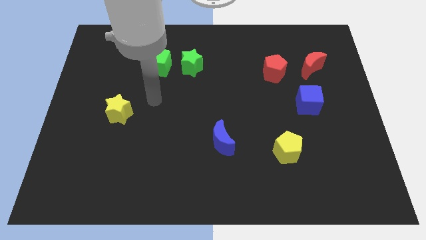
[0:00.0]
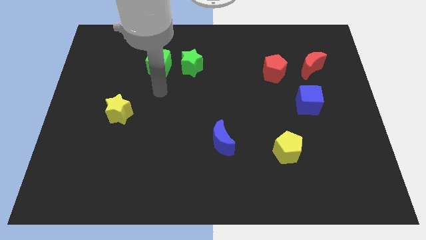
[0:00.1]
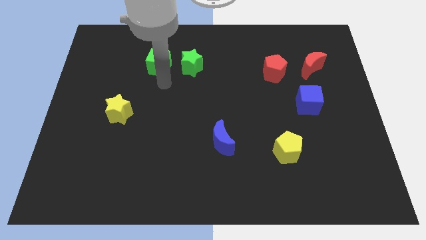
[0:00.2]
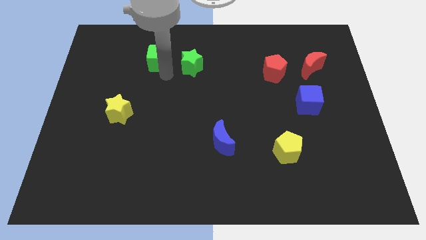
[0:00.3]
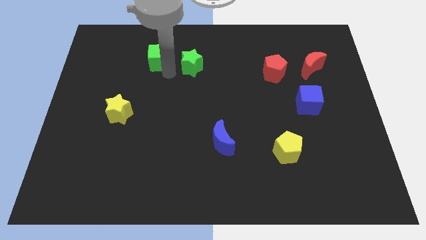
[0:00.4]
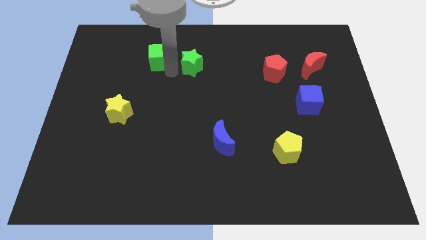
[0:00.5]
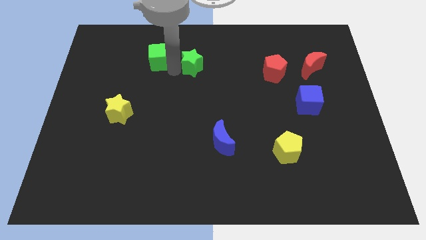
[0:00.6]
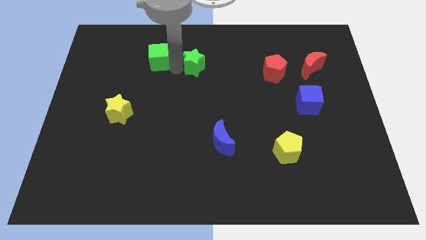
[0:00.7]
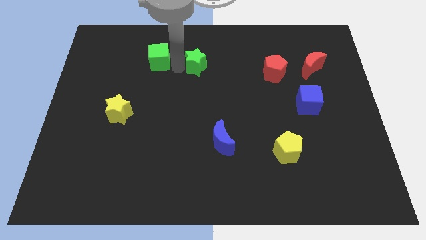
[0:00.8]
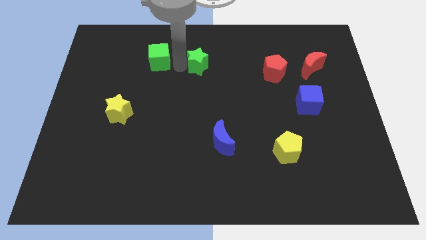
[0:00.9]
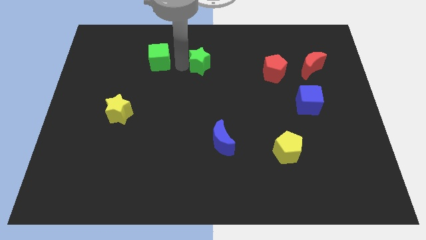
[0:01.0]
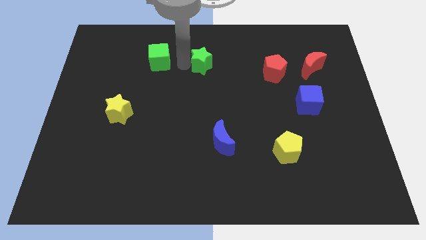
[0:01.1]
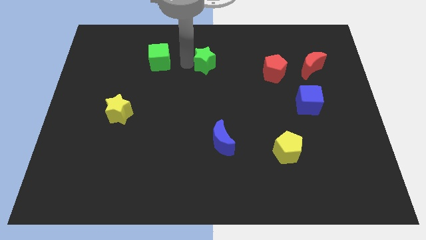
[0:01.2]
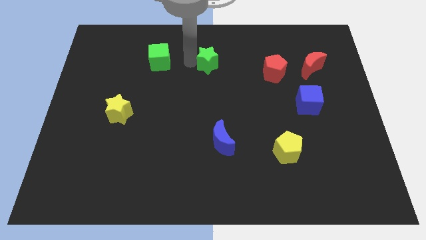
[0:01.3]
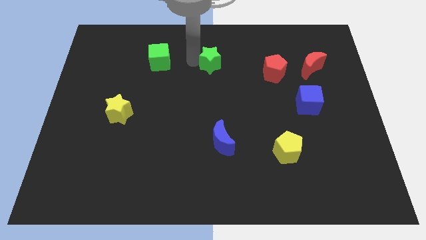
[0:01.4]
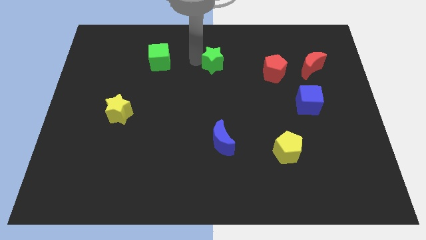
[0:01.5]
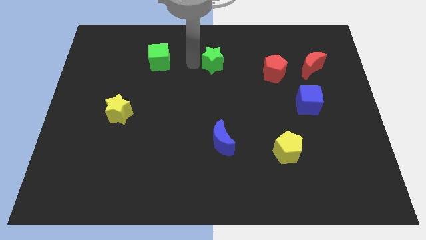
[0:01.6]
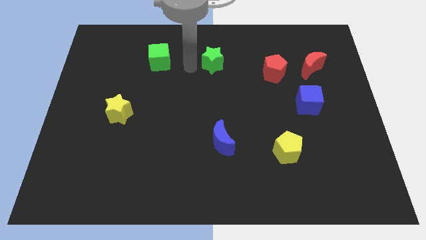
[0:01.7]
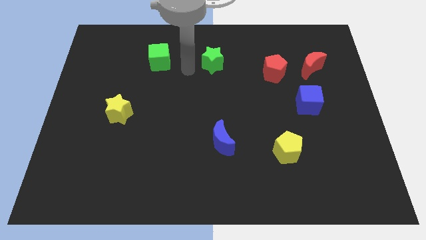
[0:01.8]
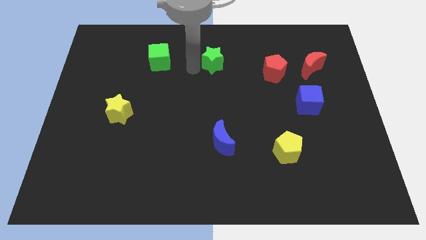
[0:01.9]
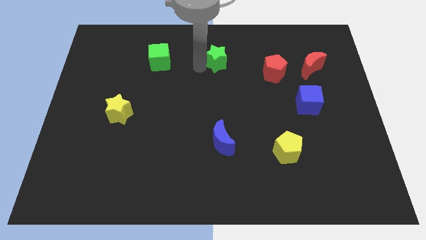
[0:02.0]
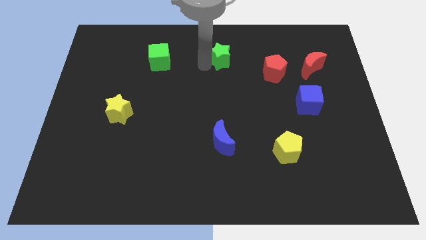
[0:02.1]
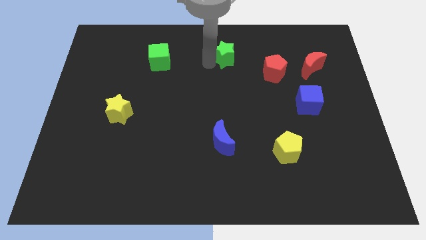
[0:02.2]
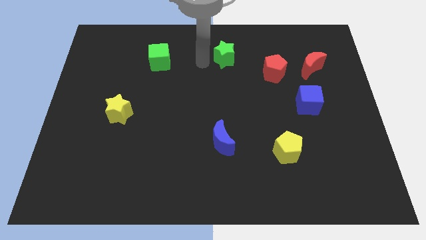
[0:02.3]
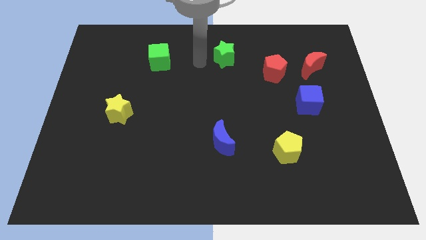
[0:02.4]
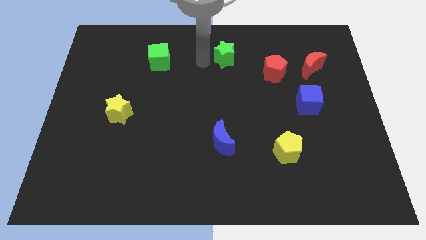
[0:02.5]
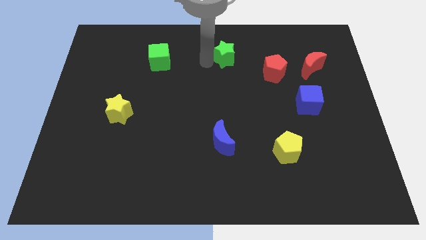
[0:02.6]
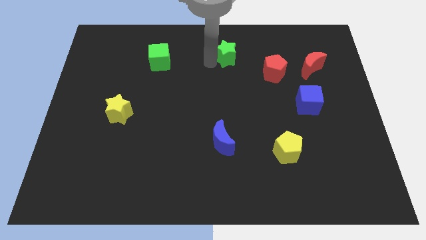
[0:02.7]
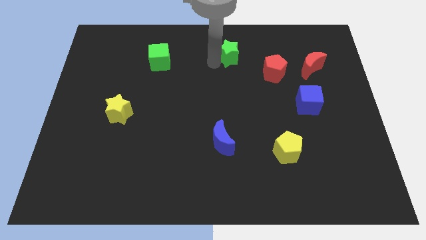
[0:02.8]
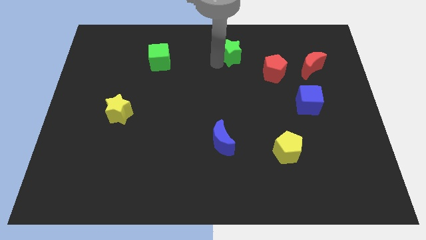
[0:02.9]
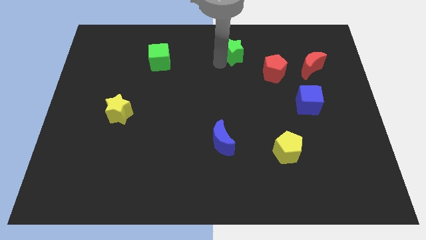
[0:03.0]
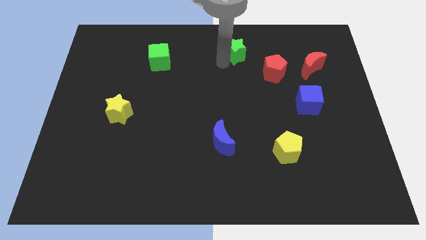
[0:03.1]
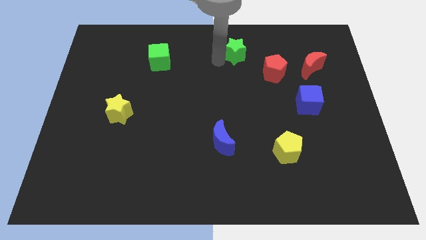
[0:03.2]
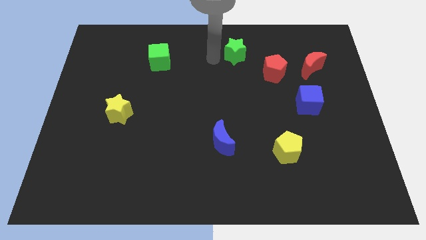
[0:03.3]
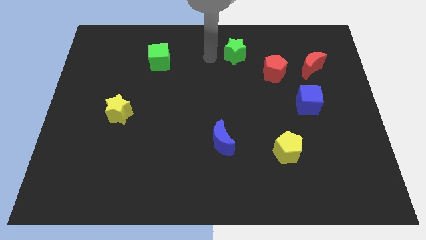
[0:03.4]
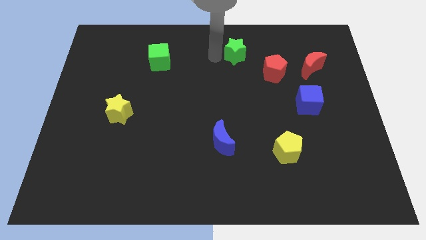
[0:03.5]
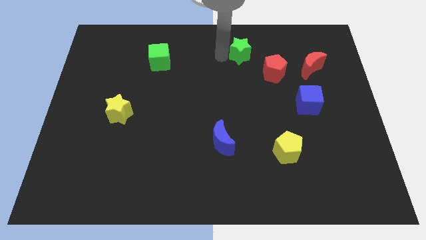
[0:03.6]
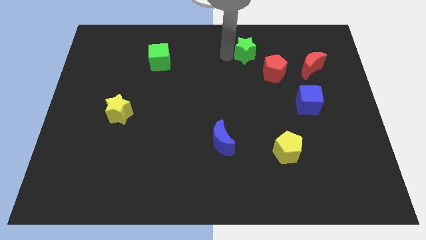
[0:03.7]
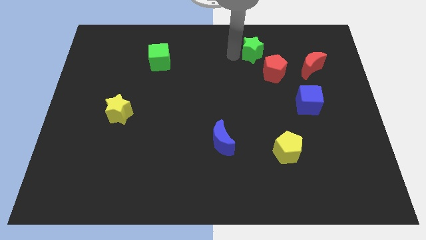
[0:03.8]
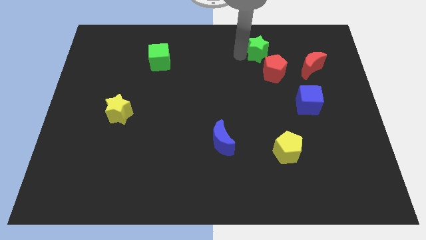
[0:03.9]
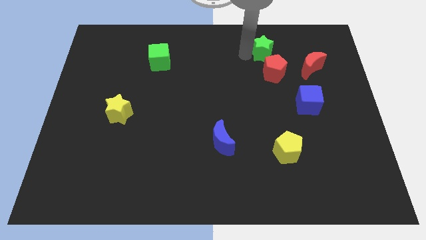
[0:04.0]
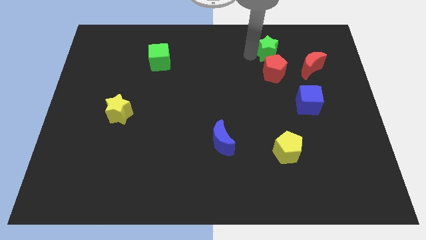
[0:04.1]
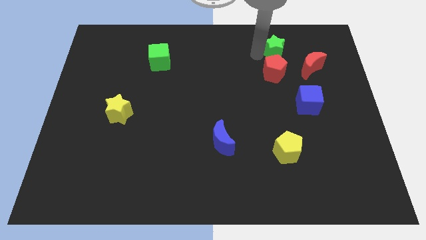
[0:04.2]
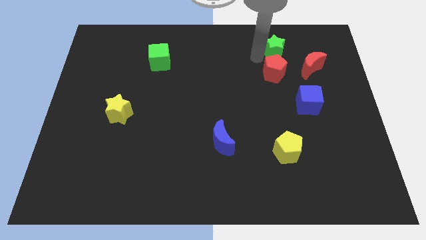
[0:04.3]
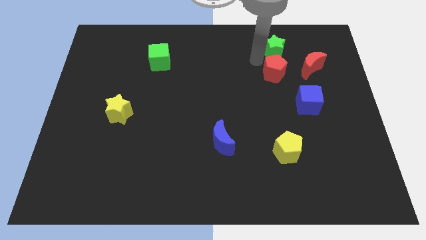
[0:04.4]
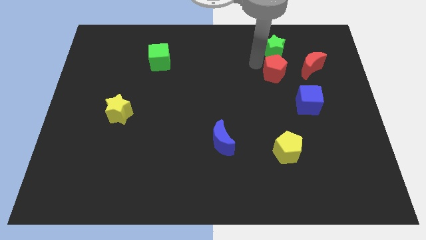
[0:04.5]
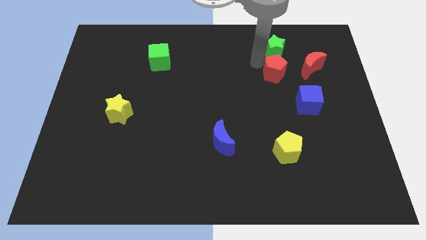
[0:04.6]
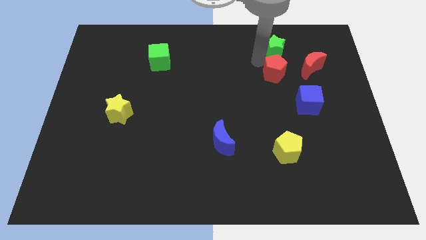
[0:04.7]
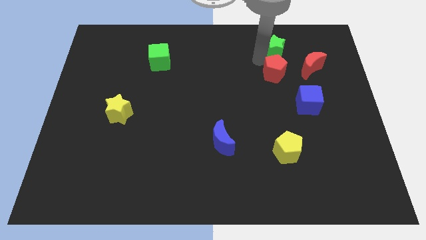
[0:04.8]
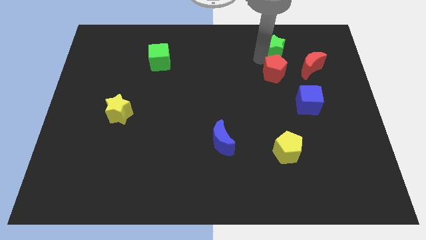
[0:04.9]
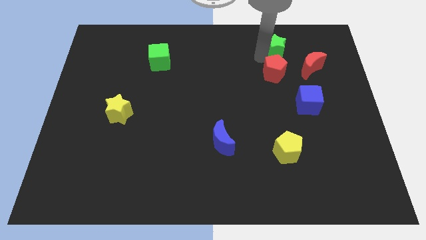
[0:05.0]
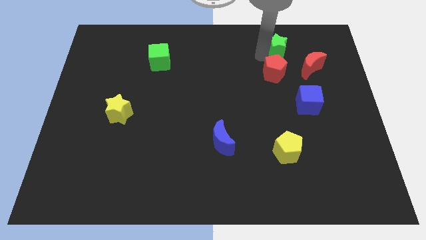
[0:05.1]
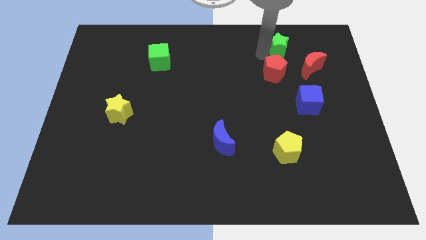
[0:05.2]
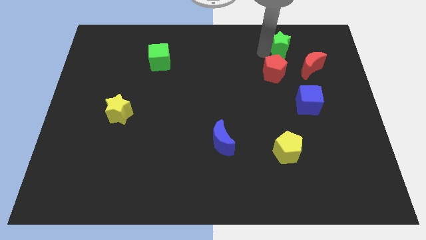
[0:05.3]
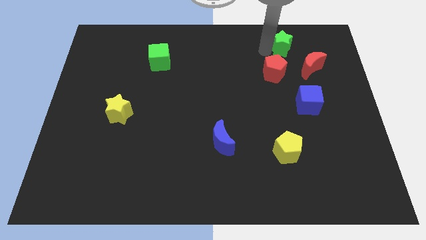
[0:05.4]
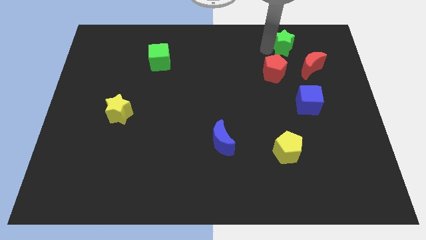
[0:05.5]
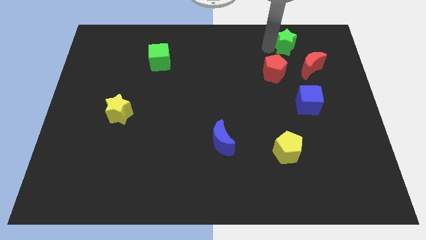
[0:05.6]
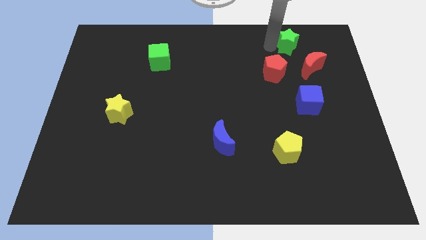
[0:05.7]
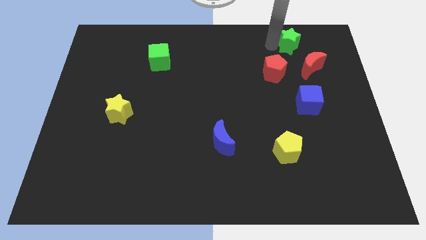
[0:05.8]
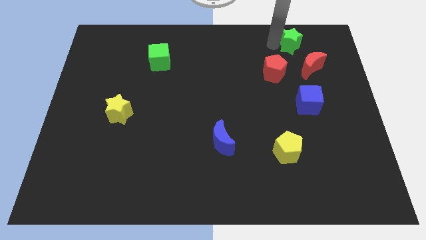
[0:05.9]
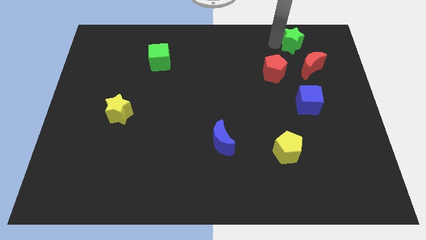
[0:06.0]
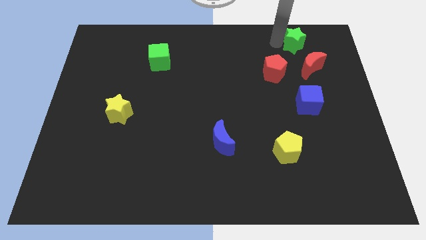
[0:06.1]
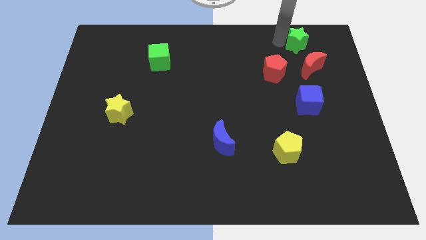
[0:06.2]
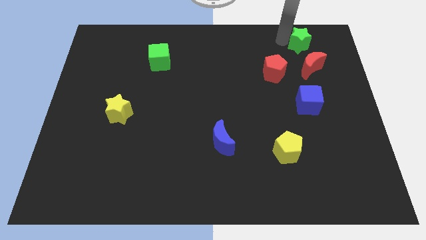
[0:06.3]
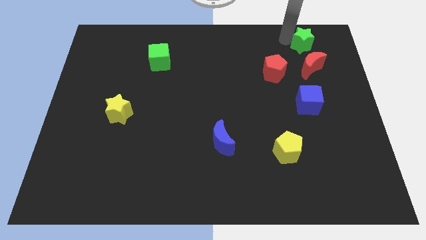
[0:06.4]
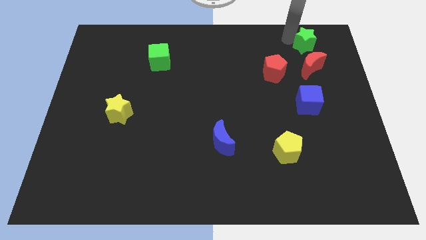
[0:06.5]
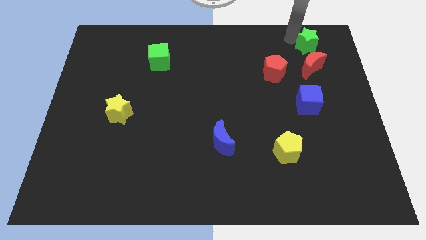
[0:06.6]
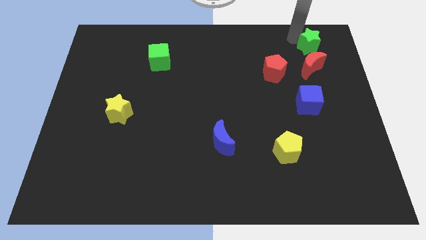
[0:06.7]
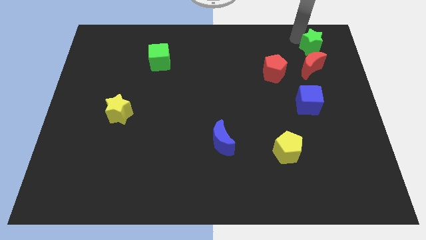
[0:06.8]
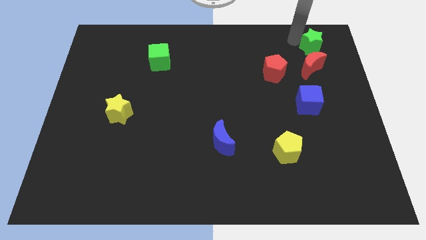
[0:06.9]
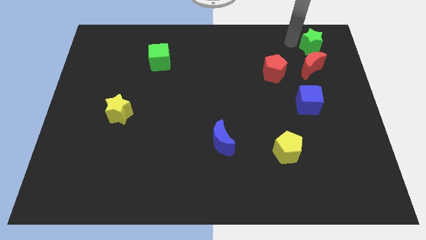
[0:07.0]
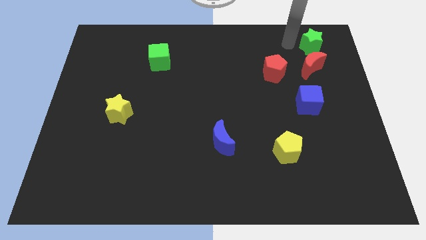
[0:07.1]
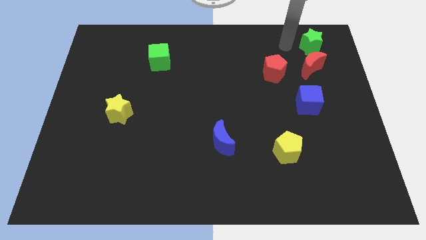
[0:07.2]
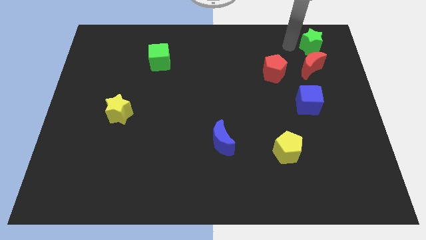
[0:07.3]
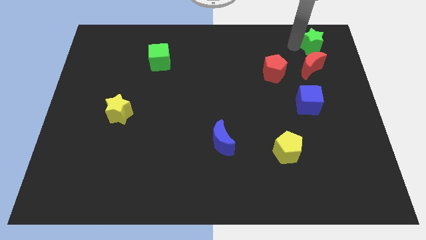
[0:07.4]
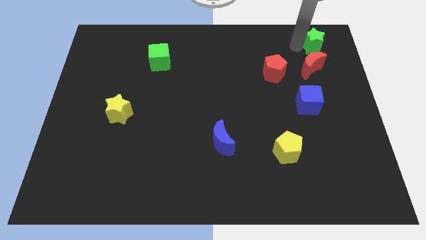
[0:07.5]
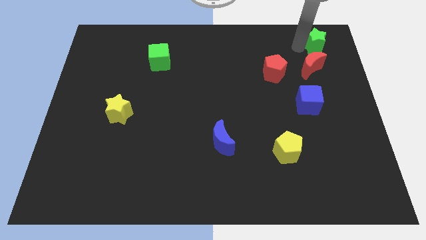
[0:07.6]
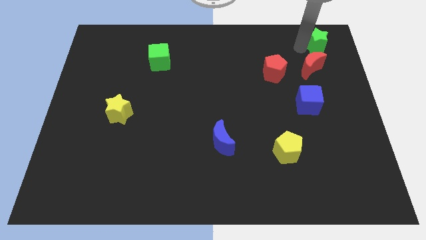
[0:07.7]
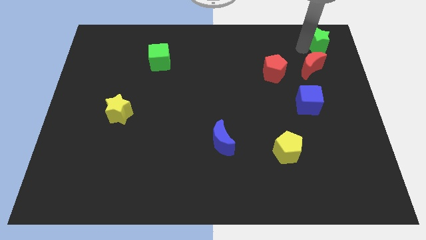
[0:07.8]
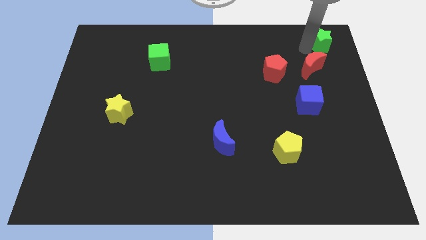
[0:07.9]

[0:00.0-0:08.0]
push the green star to the top right corner
